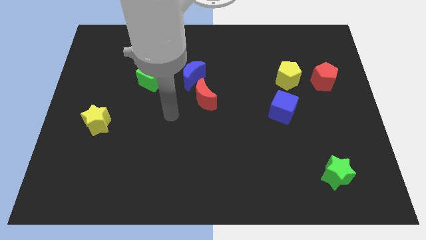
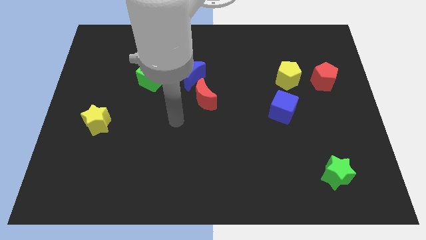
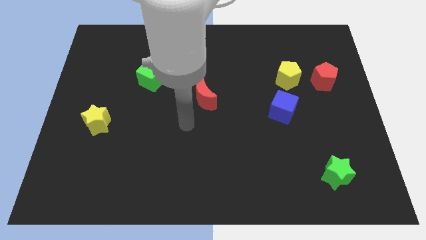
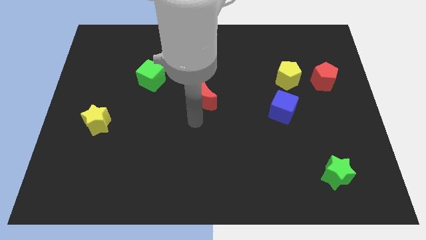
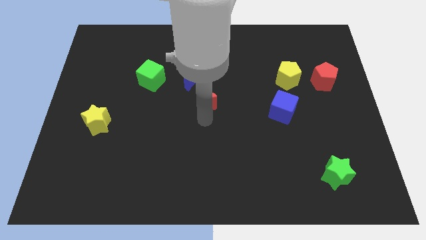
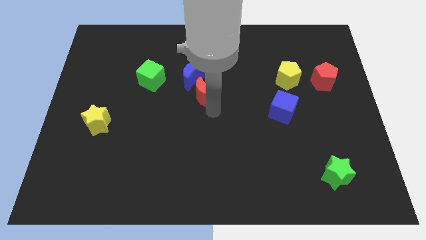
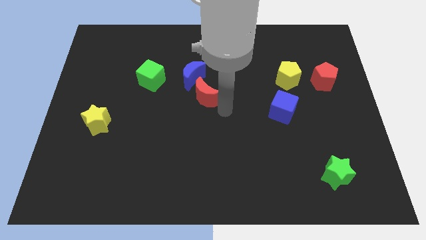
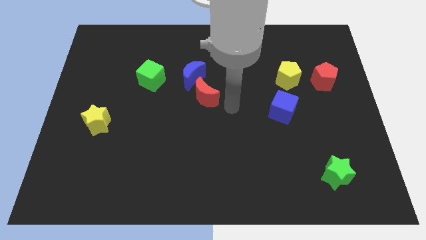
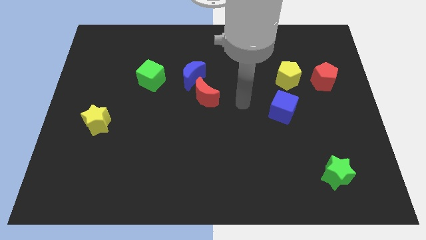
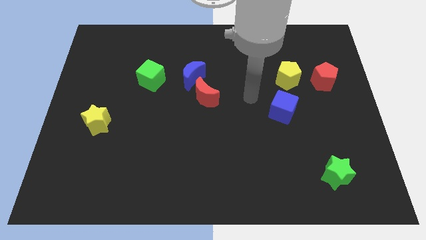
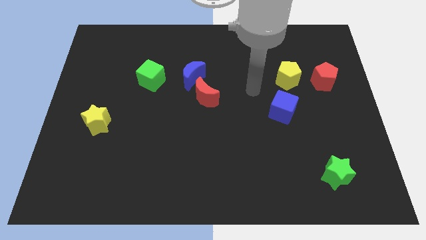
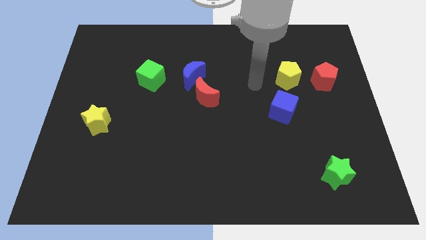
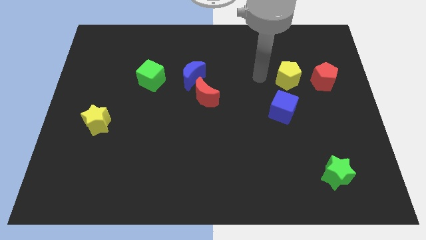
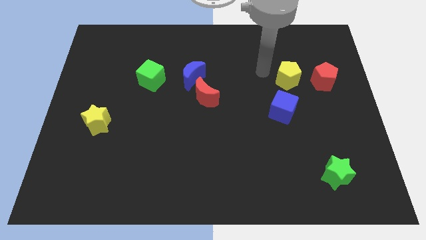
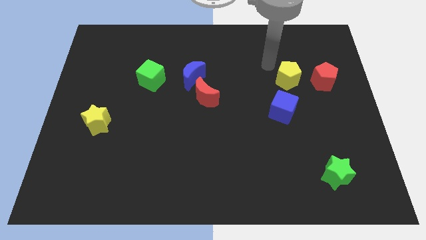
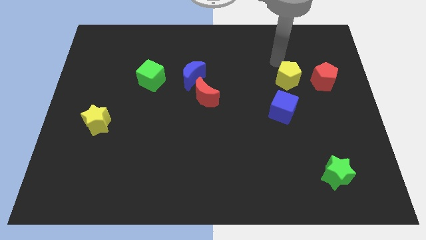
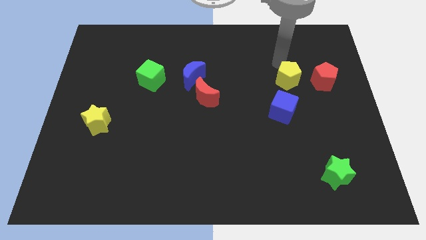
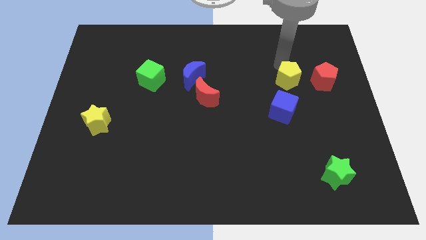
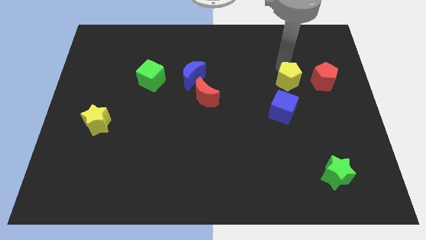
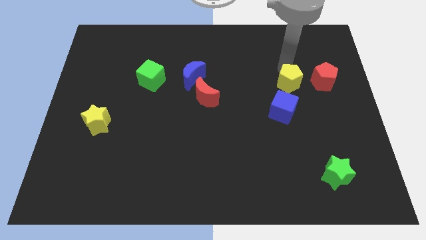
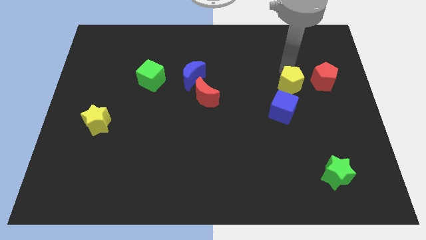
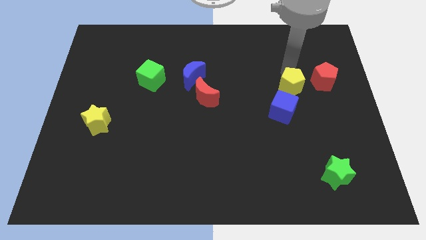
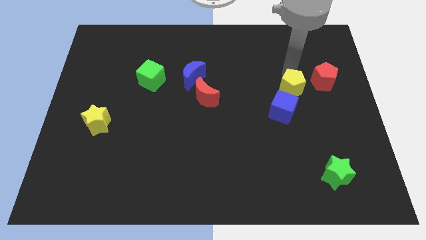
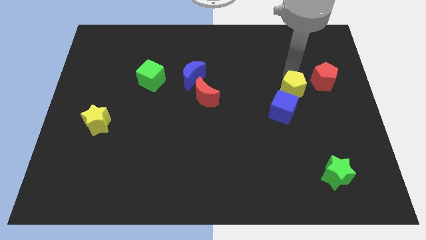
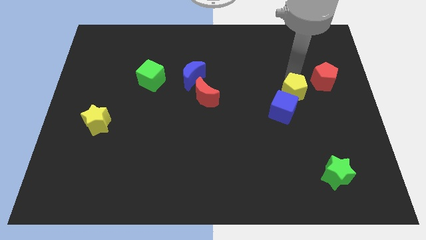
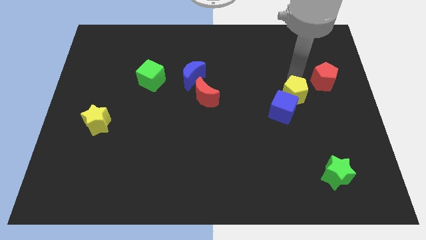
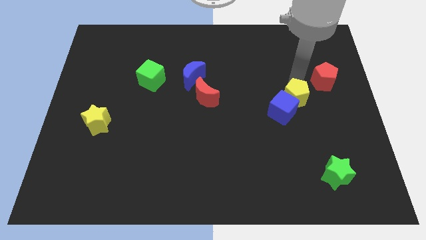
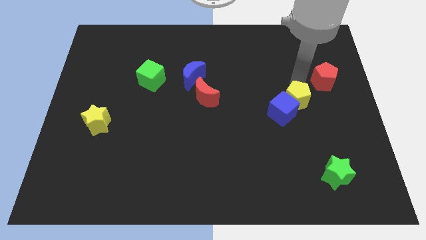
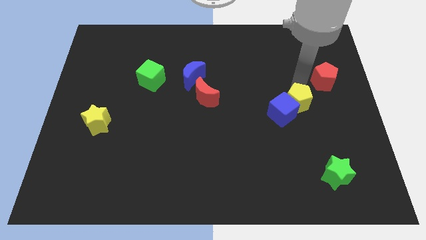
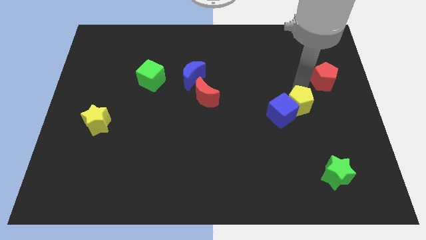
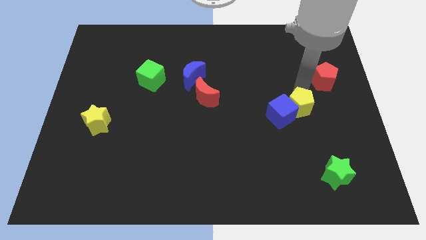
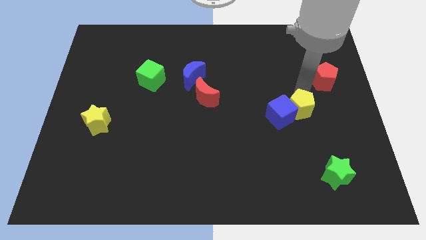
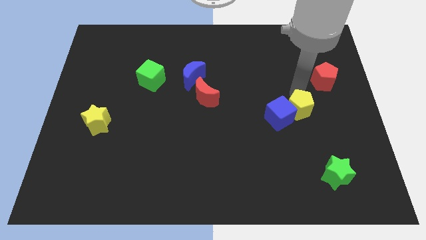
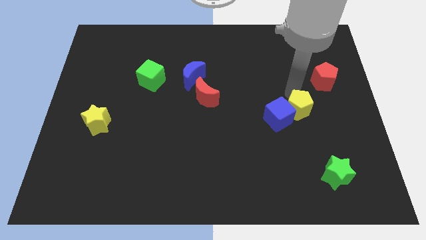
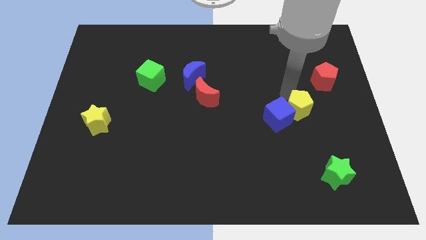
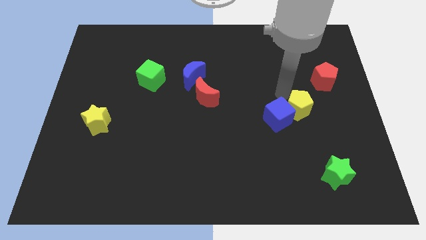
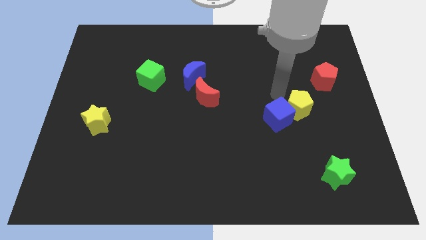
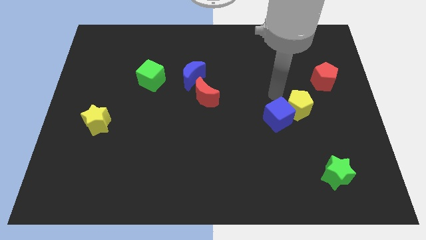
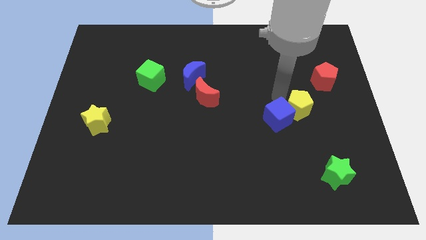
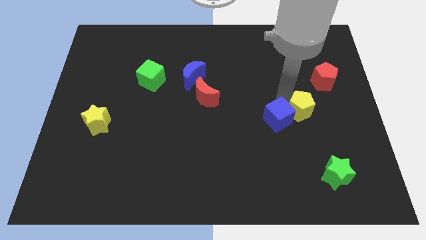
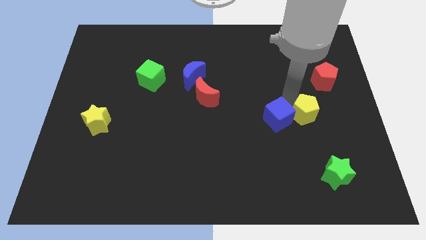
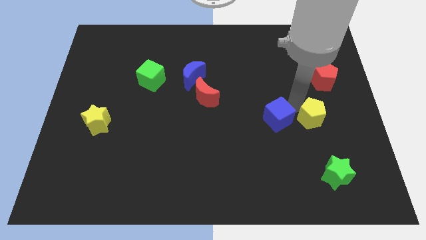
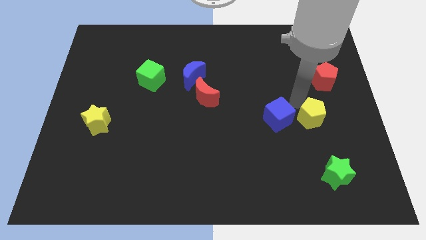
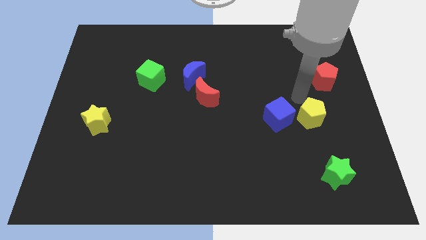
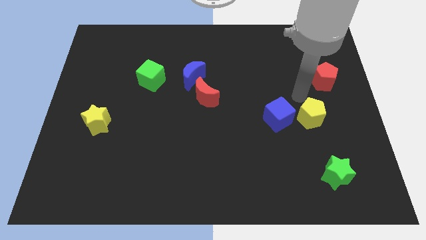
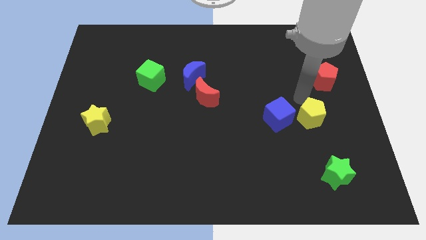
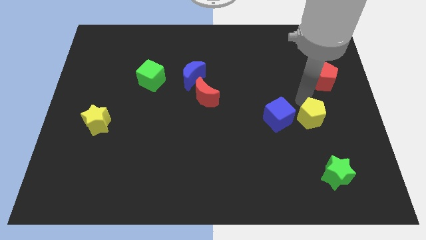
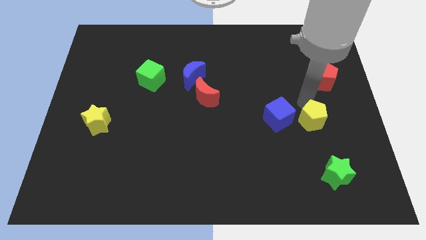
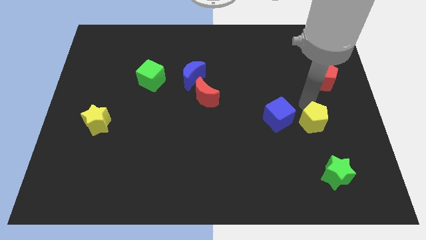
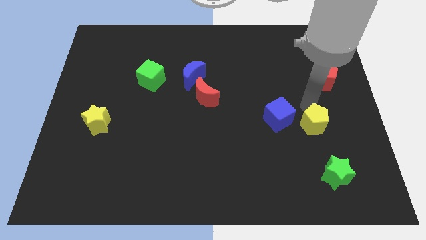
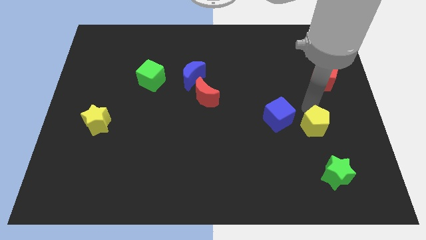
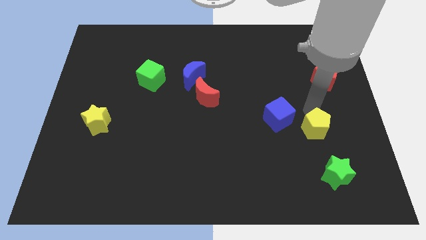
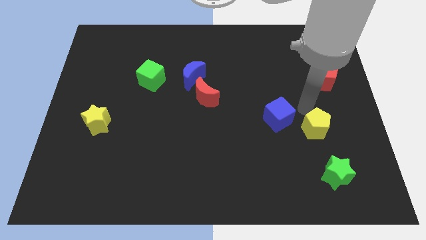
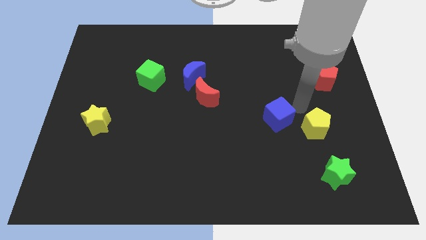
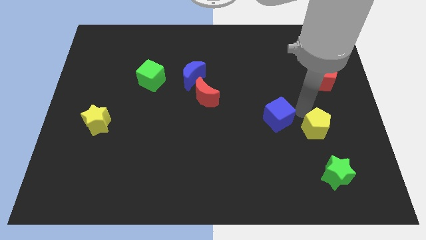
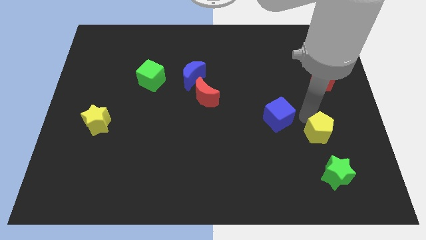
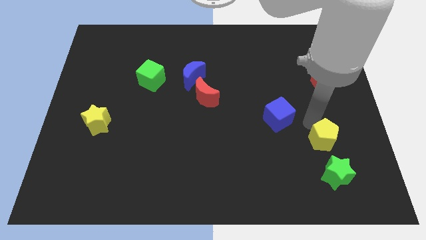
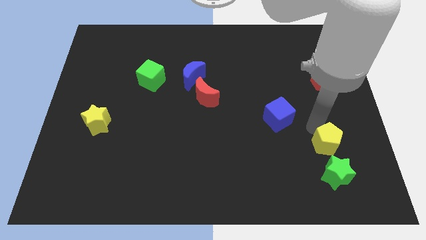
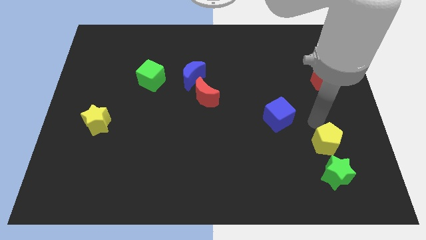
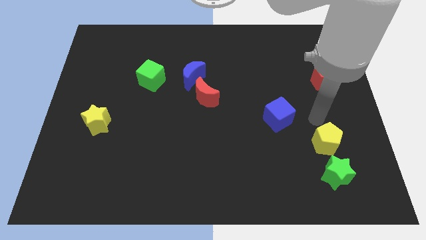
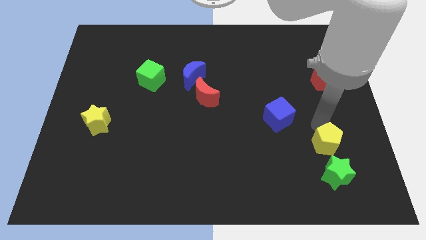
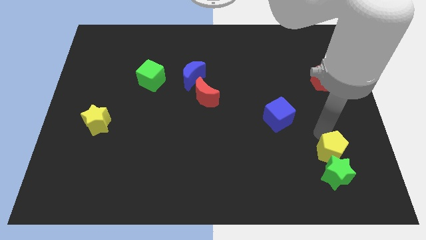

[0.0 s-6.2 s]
slide the yellow pentagon next to the green star
